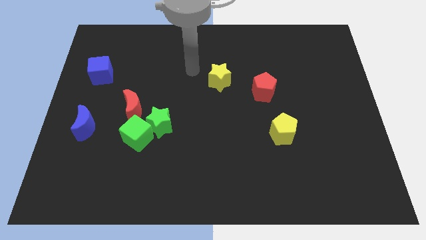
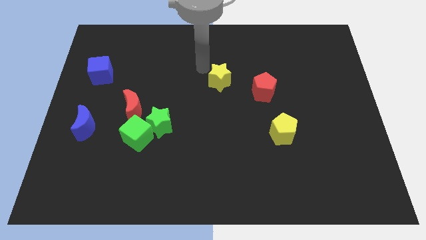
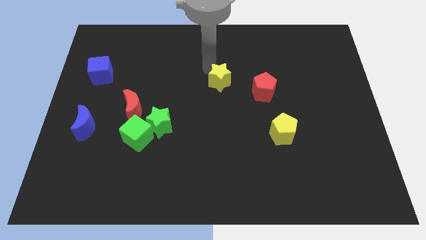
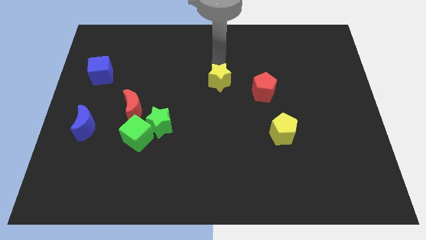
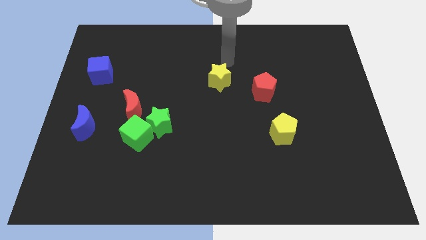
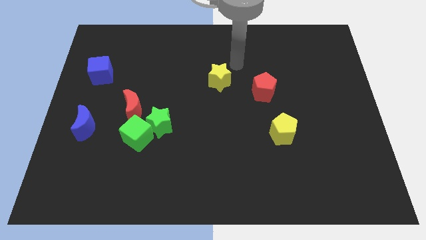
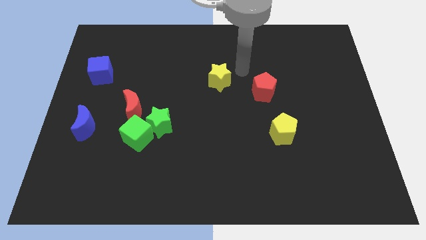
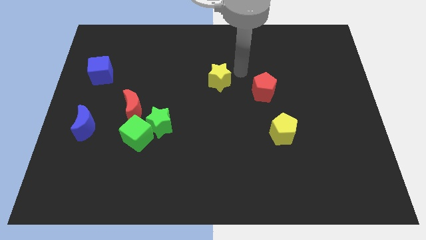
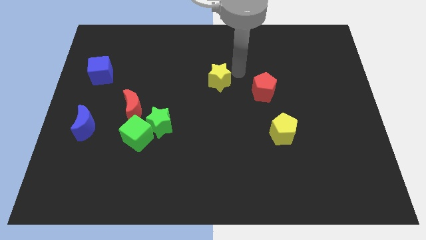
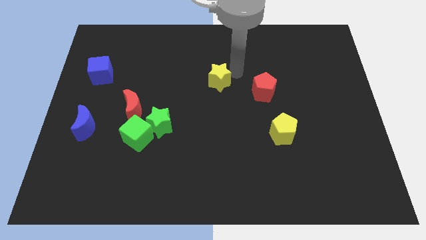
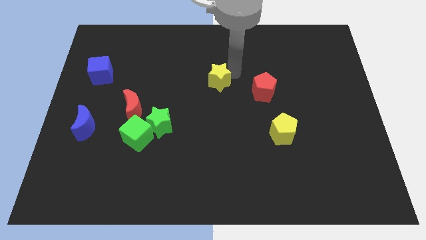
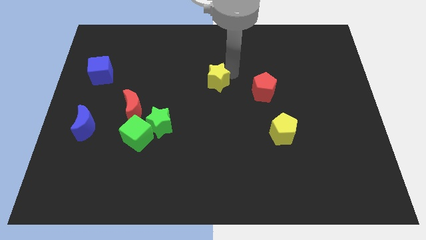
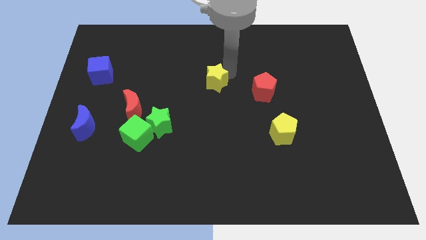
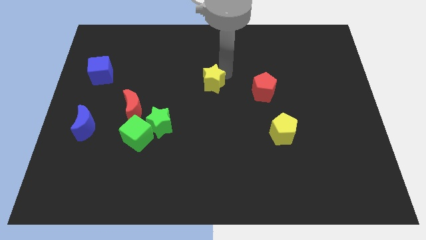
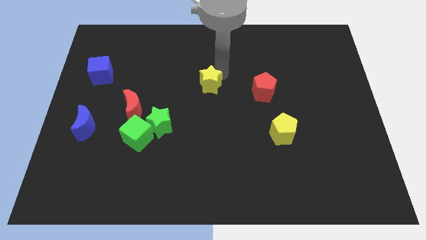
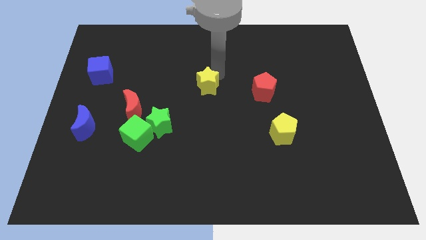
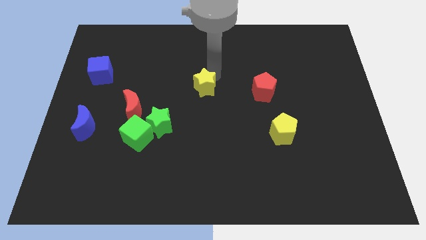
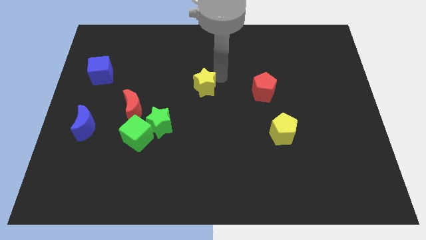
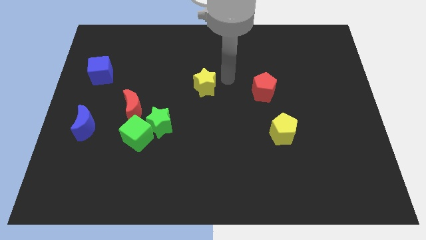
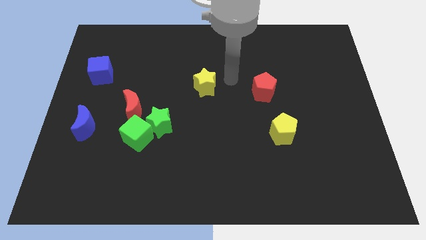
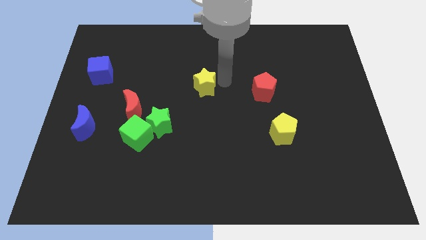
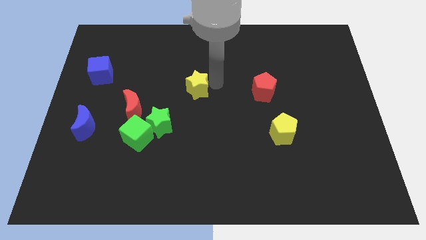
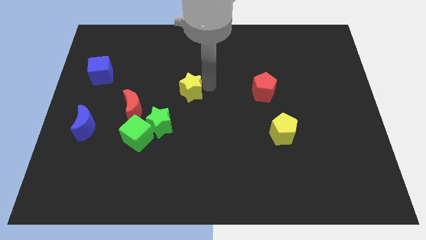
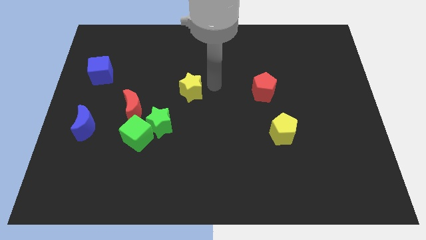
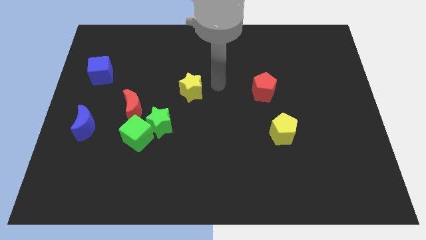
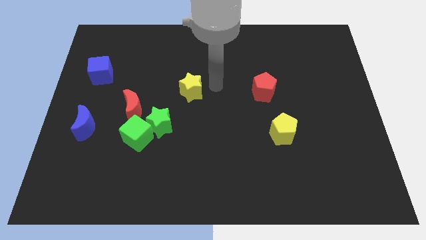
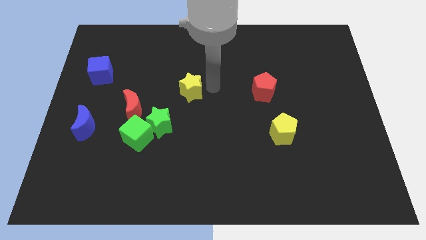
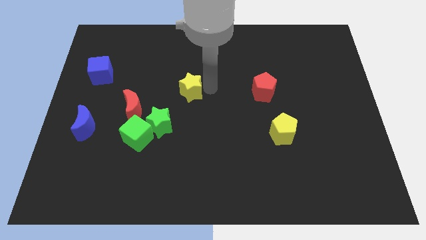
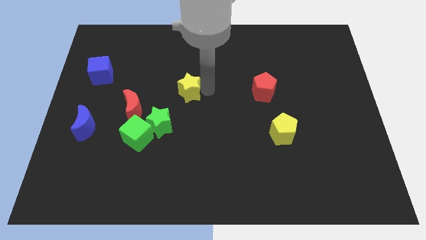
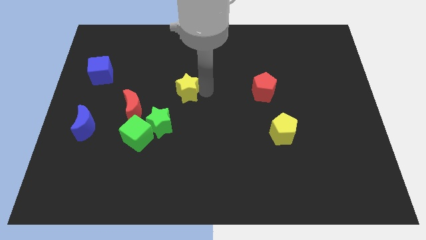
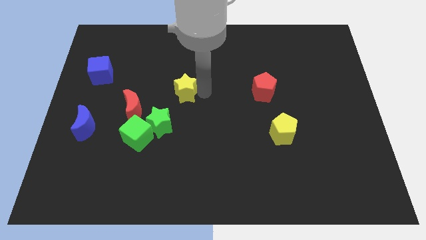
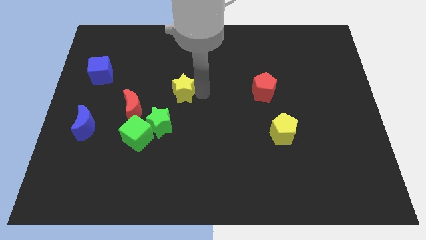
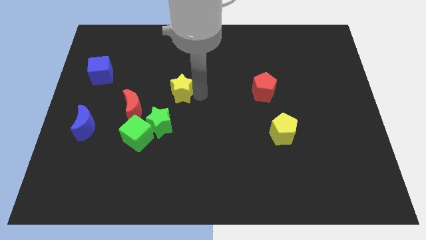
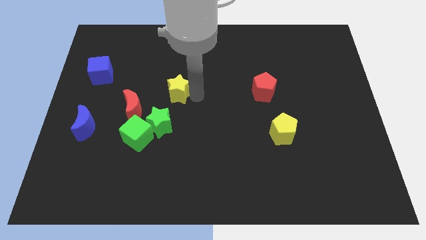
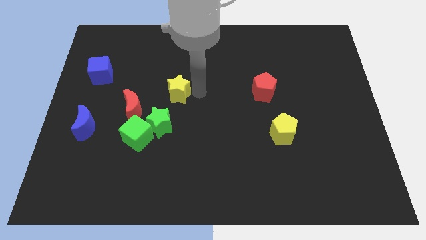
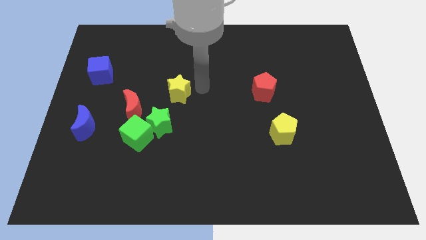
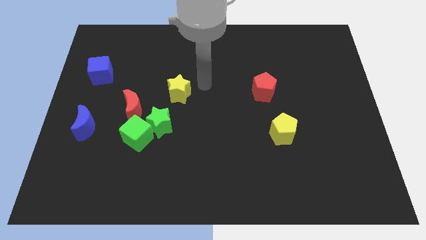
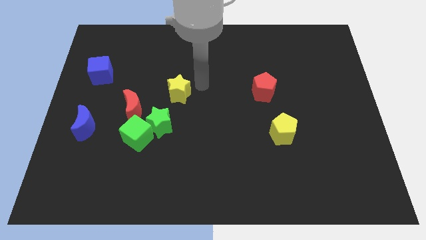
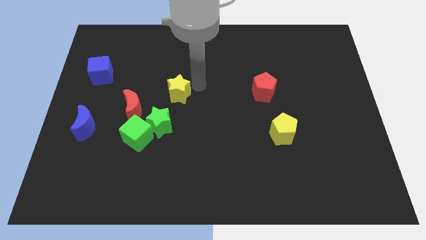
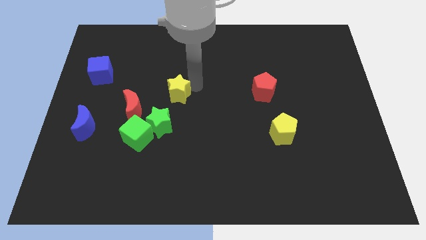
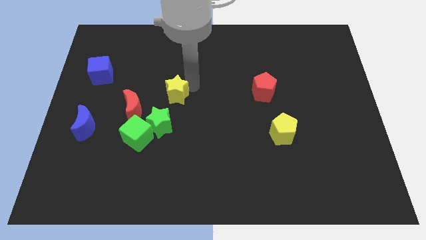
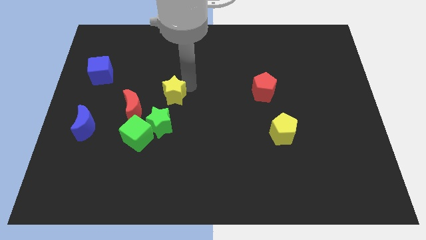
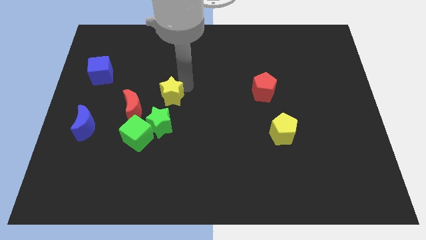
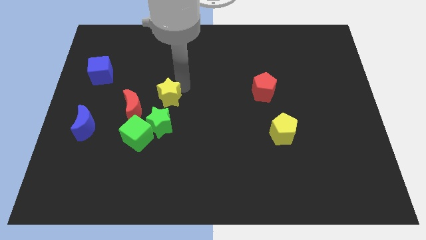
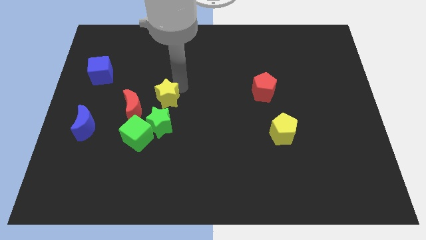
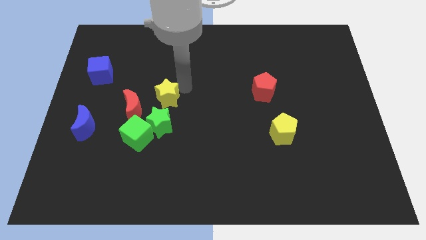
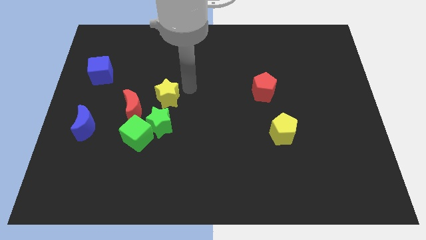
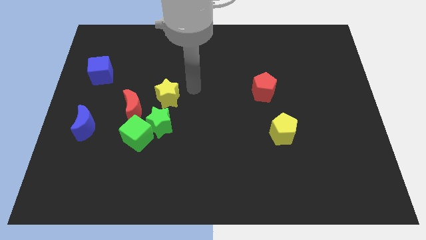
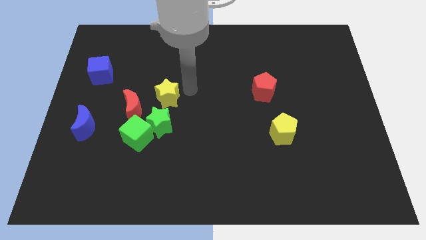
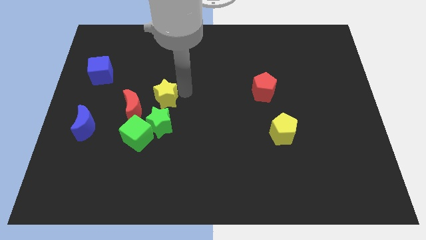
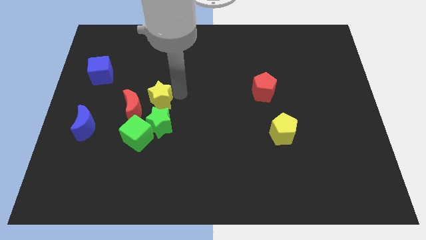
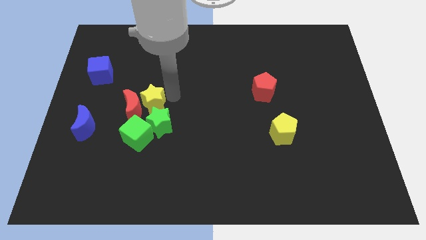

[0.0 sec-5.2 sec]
move the yellow star towards the red moon

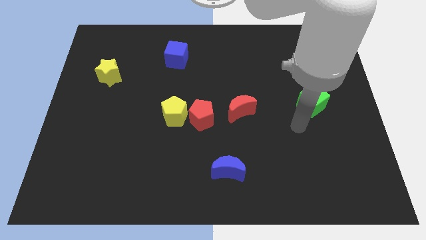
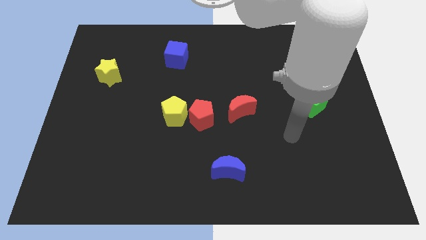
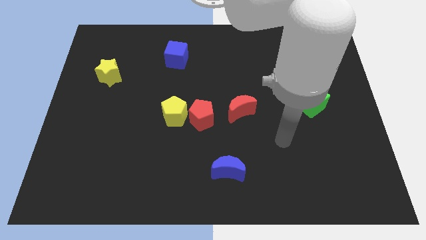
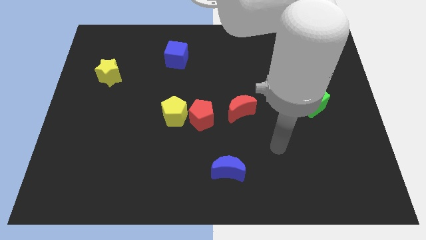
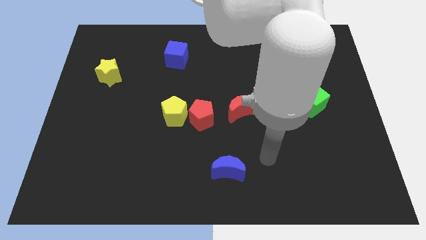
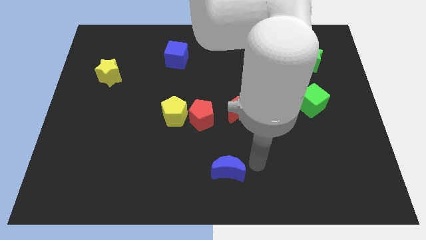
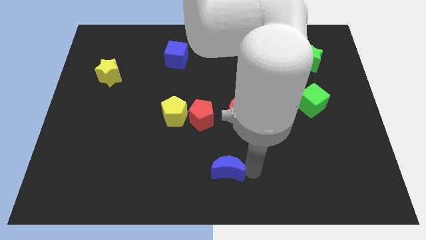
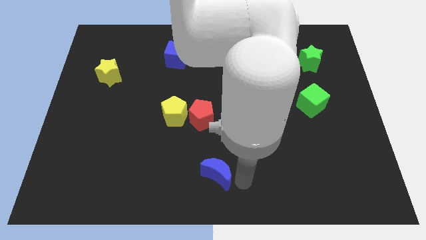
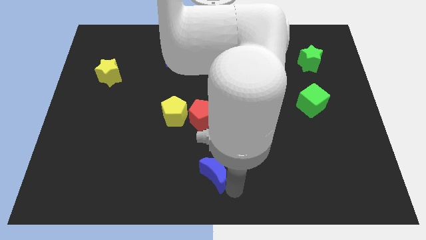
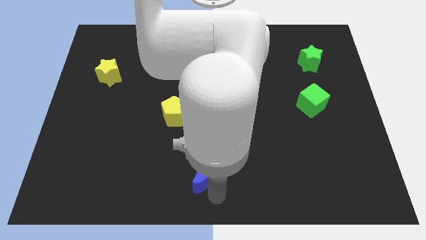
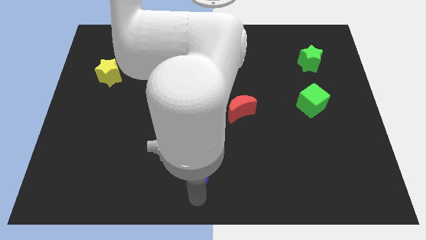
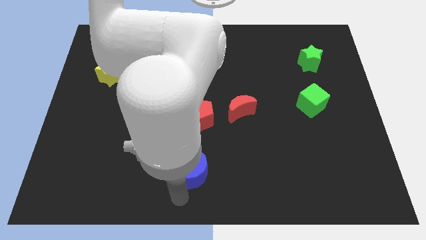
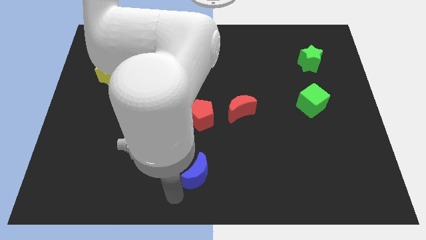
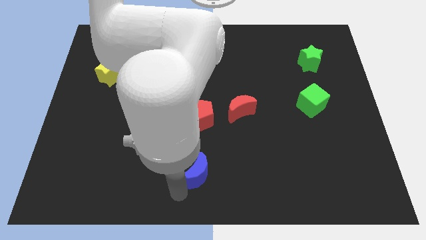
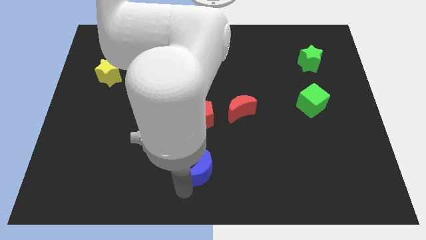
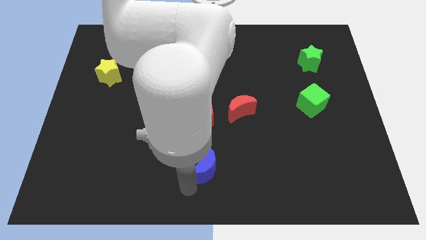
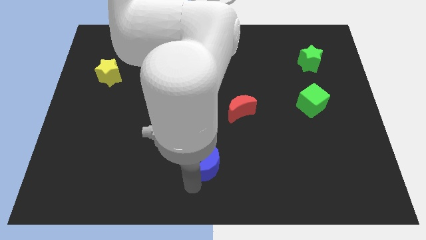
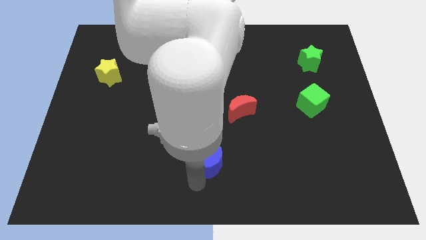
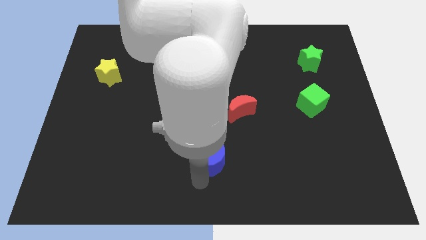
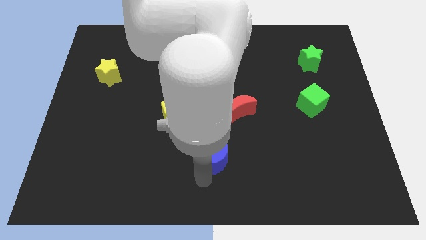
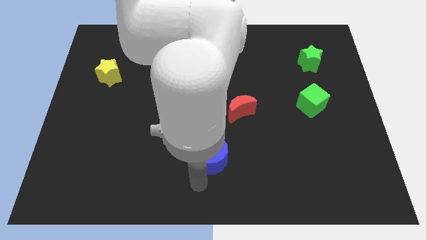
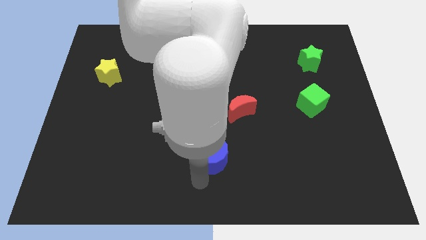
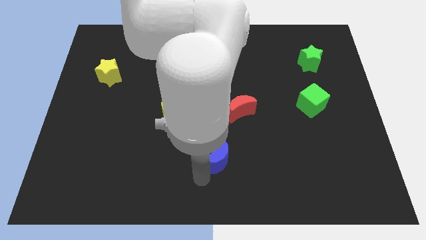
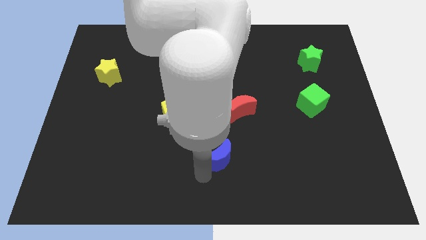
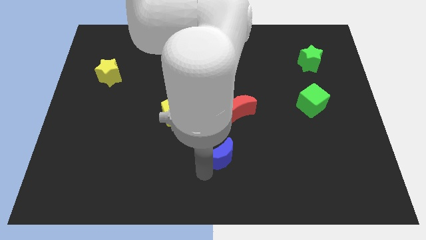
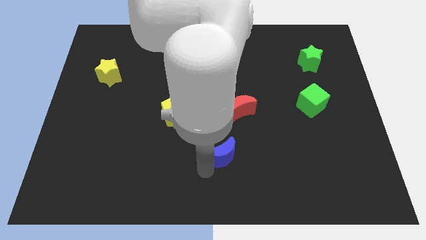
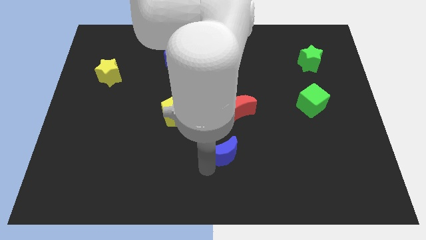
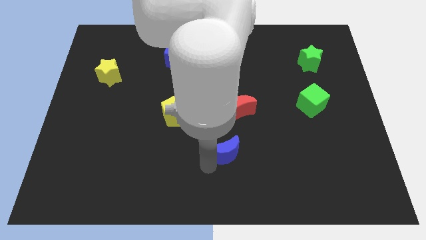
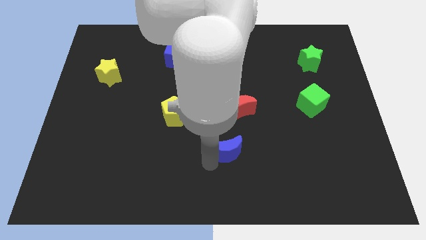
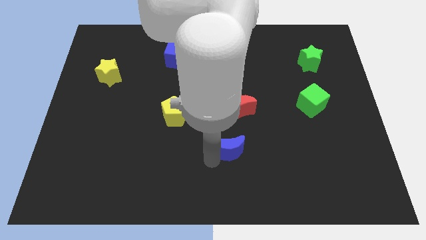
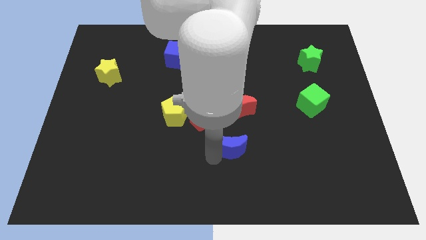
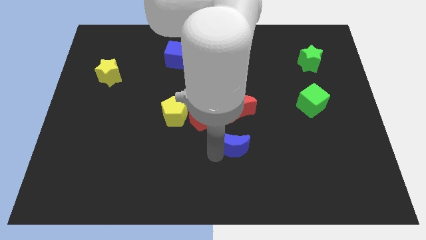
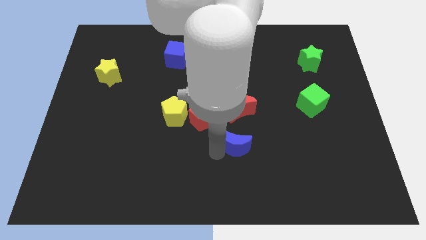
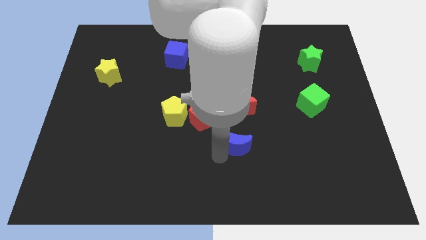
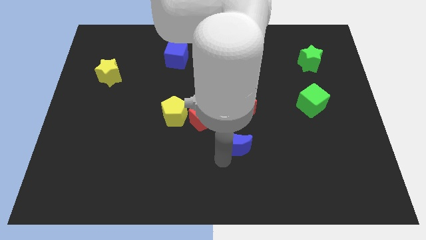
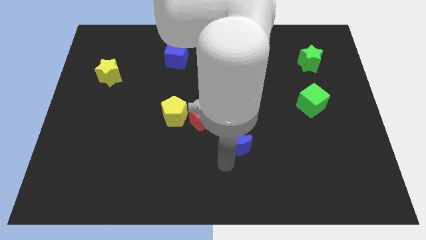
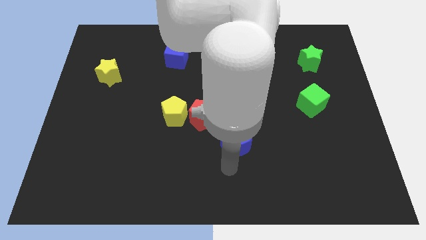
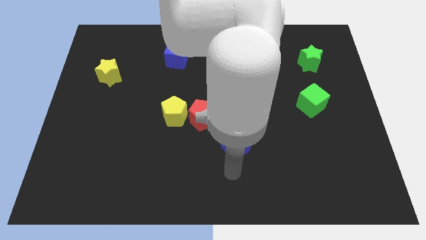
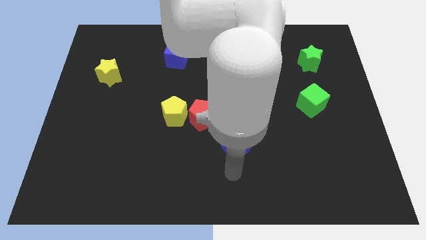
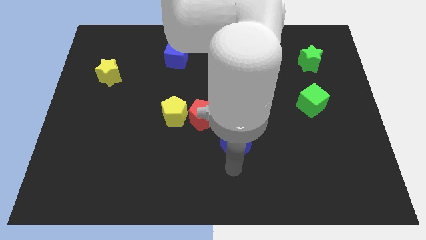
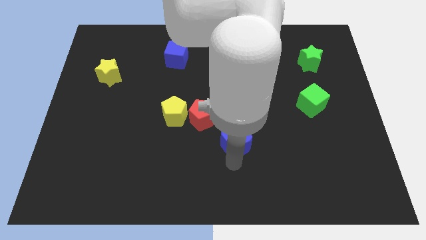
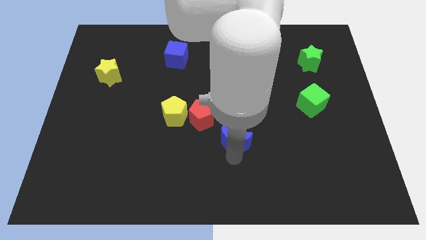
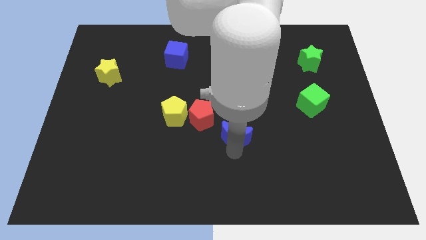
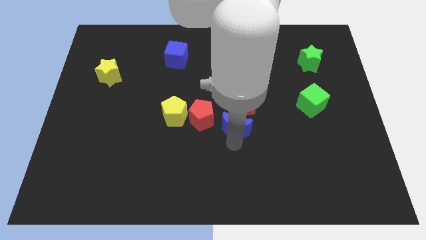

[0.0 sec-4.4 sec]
put the blue moon towards the red moon
